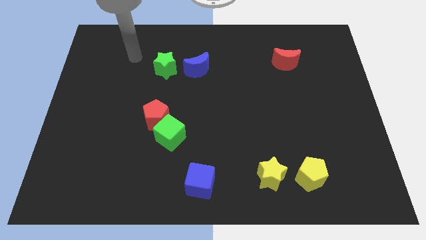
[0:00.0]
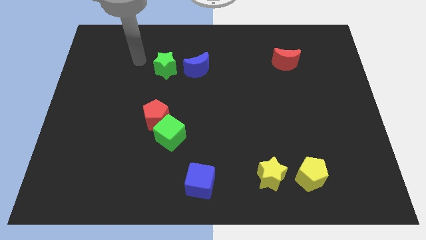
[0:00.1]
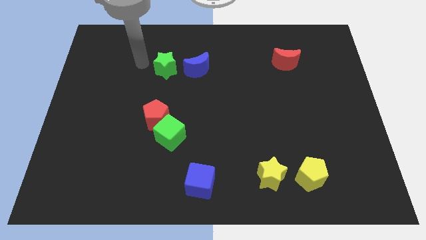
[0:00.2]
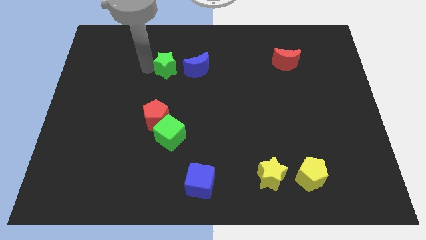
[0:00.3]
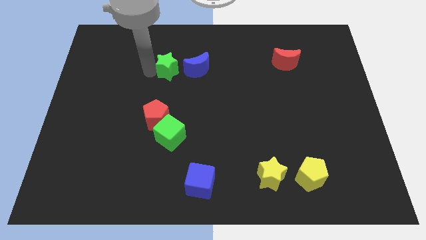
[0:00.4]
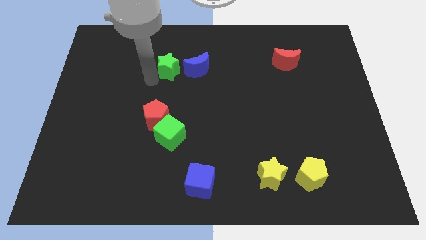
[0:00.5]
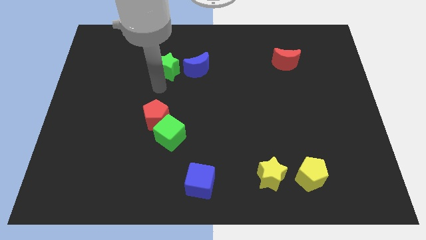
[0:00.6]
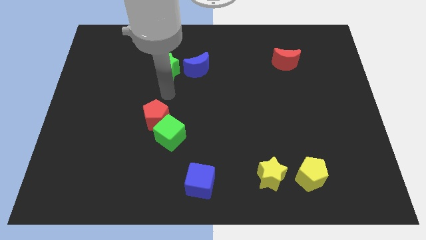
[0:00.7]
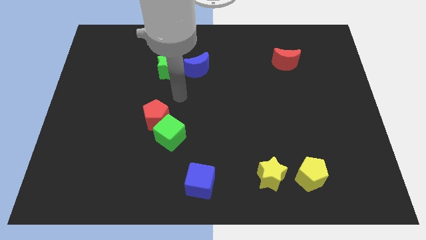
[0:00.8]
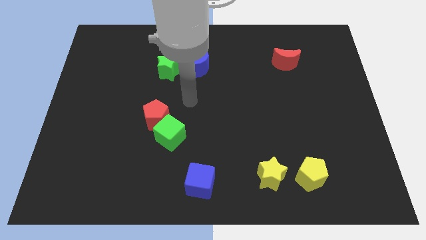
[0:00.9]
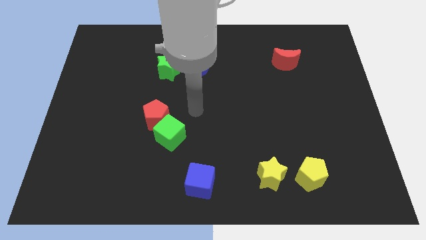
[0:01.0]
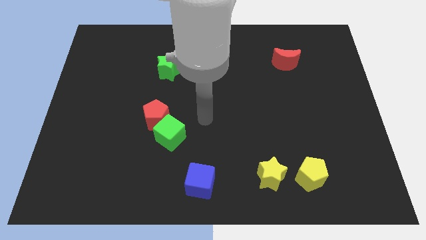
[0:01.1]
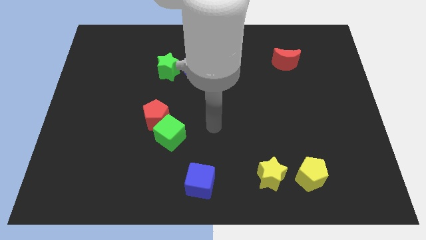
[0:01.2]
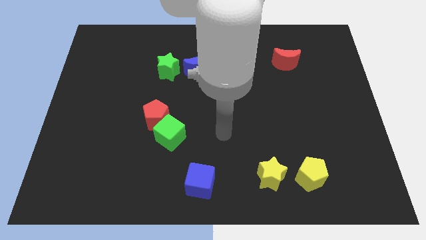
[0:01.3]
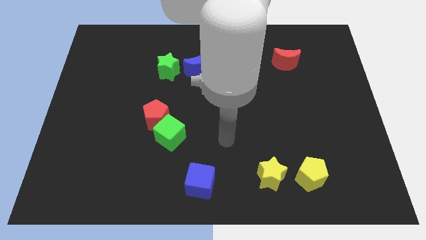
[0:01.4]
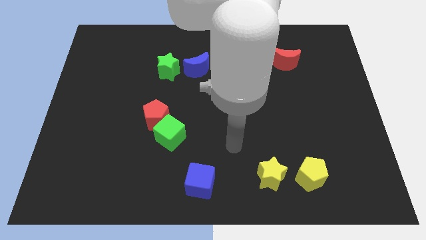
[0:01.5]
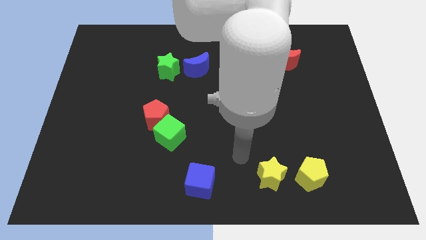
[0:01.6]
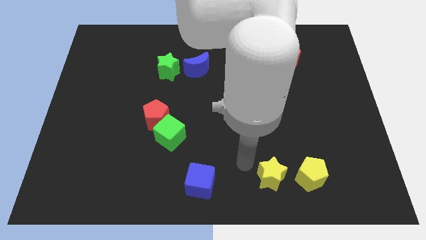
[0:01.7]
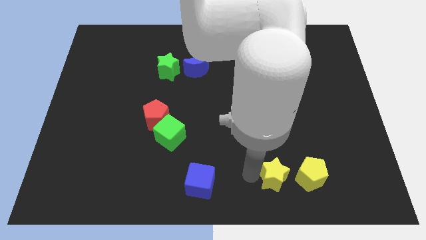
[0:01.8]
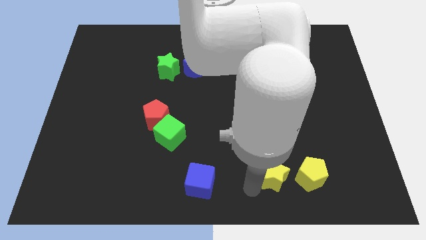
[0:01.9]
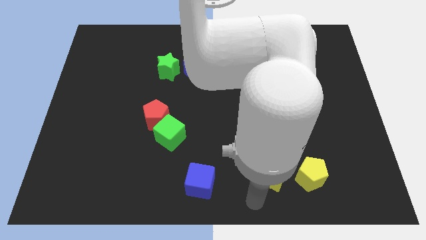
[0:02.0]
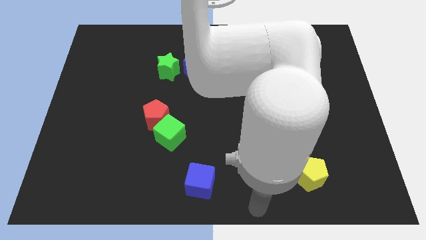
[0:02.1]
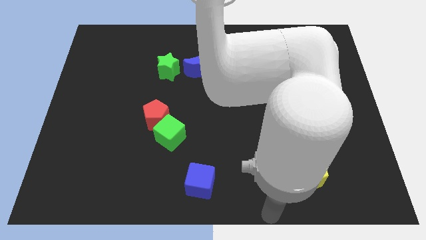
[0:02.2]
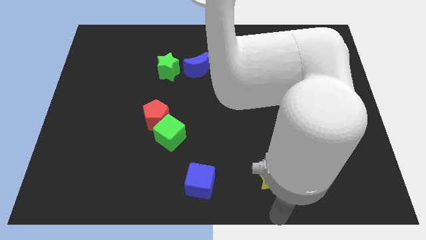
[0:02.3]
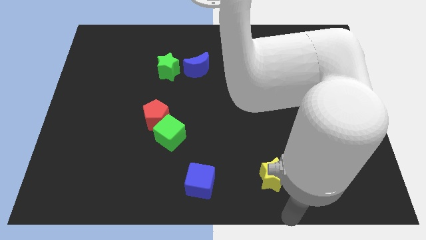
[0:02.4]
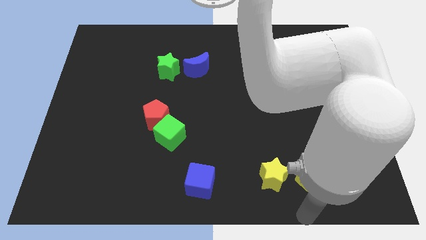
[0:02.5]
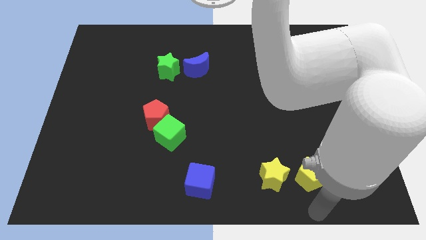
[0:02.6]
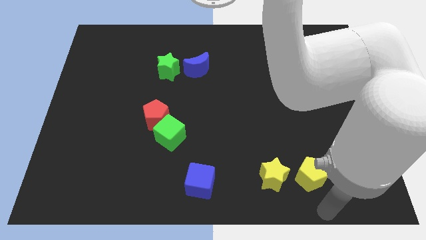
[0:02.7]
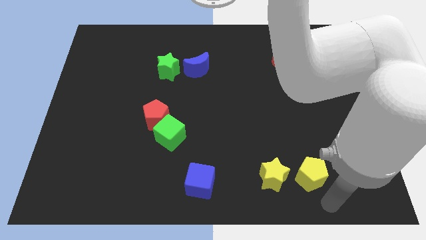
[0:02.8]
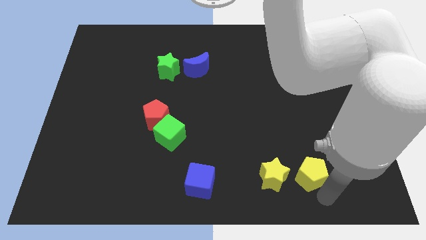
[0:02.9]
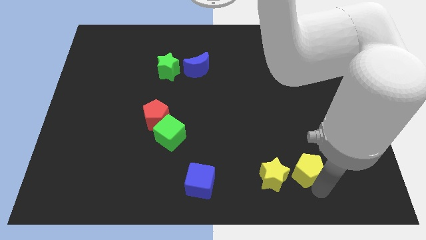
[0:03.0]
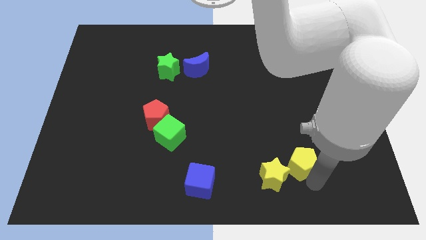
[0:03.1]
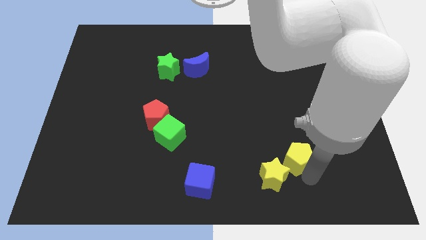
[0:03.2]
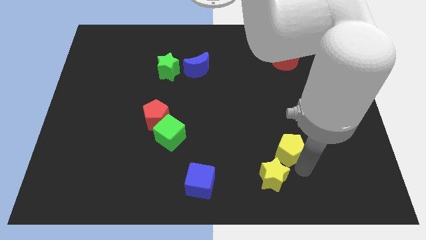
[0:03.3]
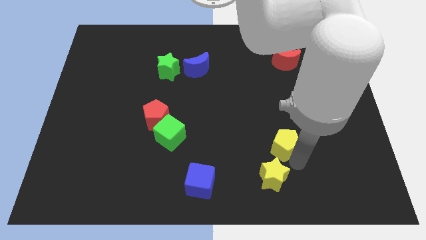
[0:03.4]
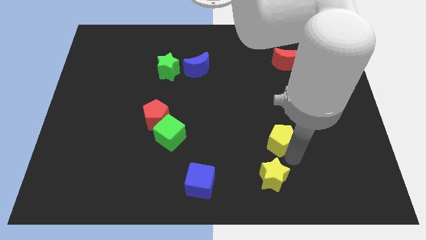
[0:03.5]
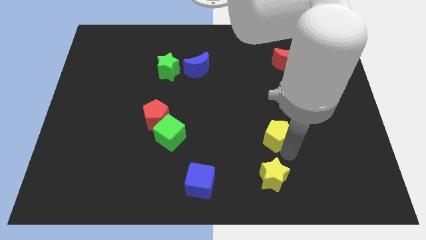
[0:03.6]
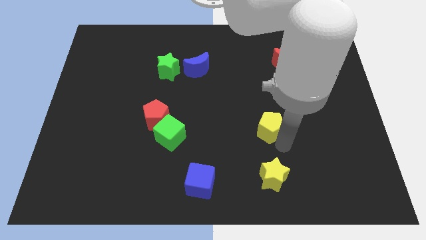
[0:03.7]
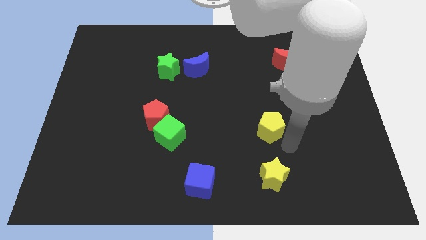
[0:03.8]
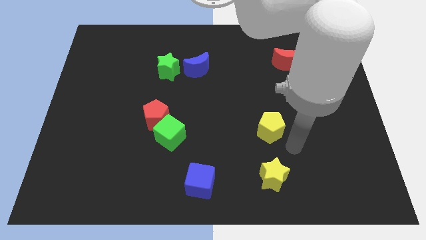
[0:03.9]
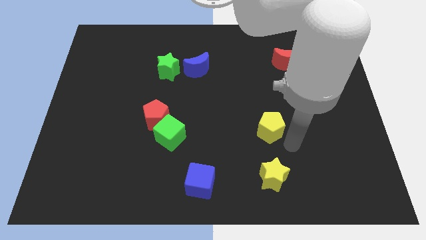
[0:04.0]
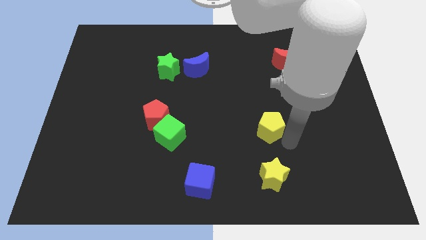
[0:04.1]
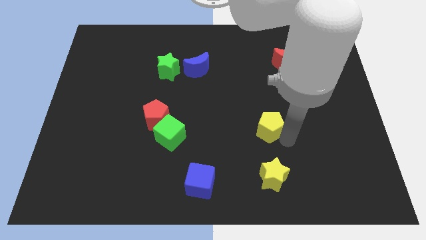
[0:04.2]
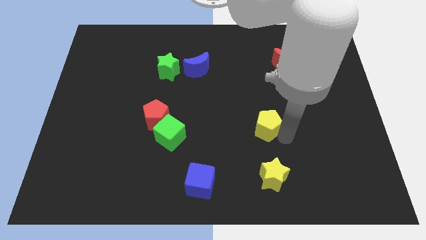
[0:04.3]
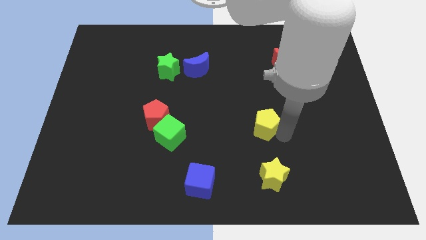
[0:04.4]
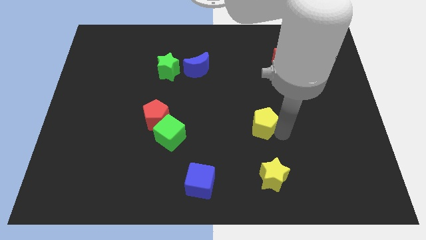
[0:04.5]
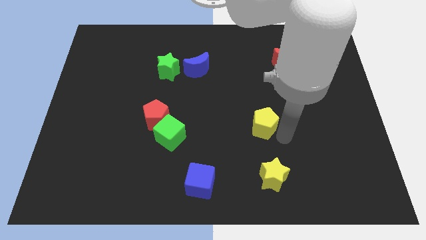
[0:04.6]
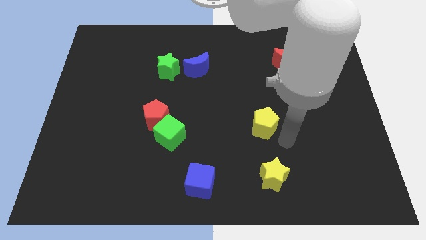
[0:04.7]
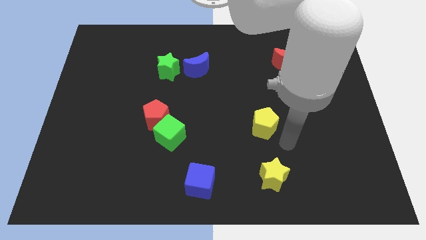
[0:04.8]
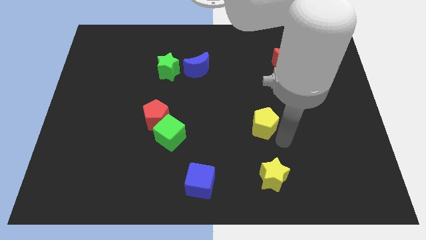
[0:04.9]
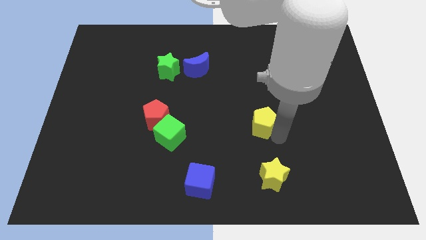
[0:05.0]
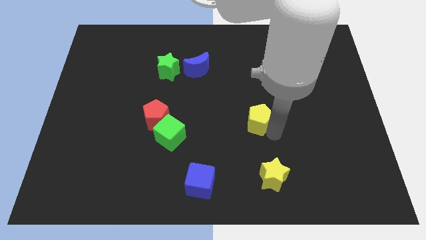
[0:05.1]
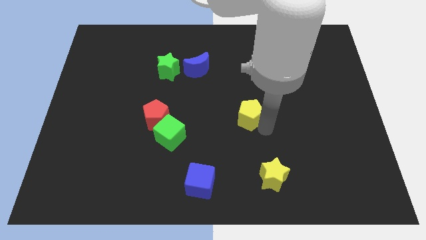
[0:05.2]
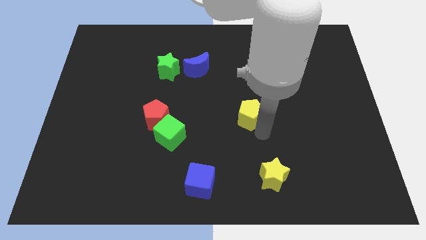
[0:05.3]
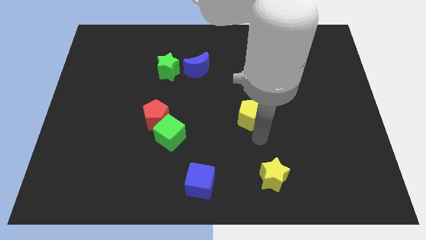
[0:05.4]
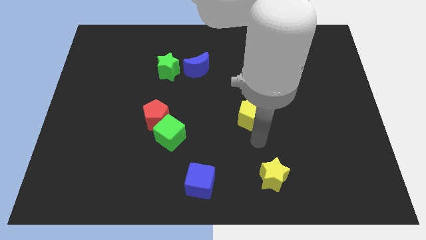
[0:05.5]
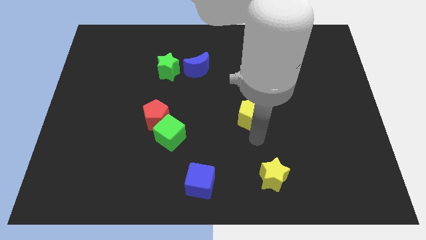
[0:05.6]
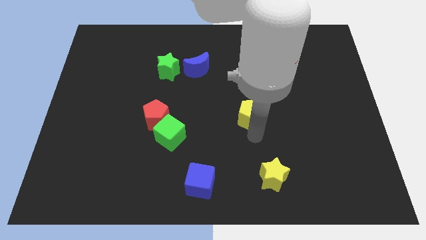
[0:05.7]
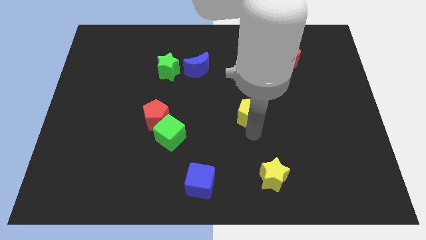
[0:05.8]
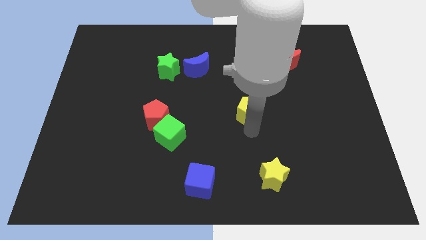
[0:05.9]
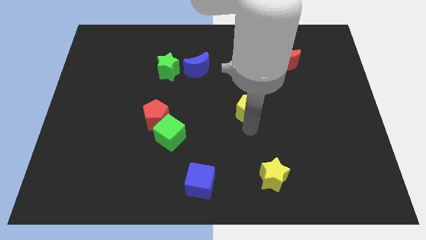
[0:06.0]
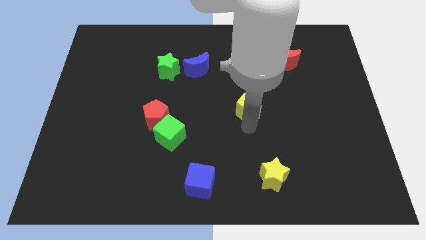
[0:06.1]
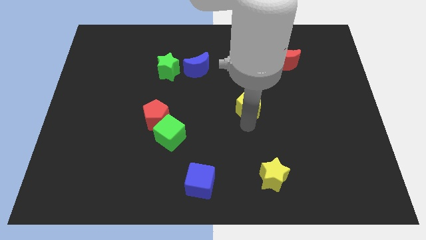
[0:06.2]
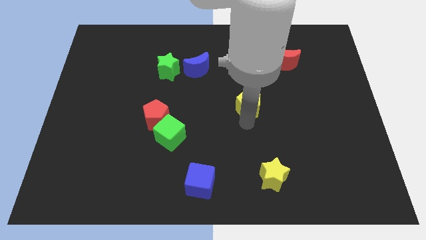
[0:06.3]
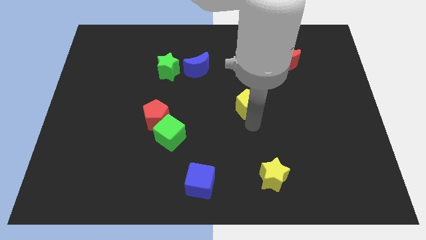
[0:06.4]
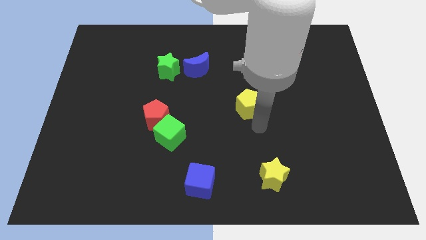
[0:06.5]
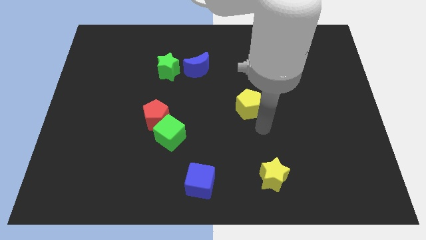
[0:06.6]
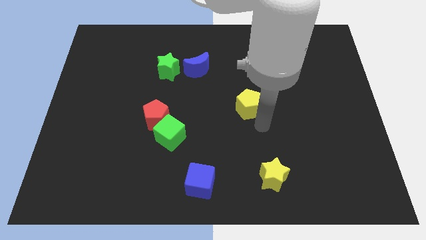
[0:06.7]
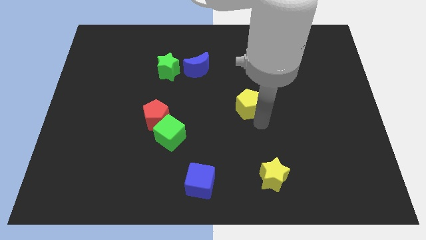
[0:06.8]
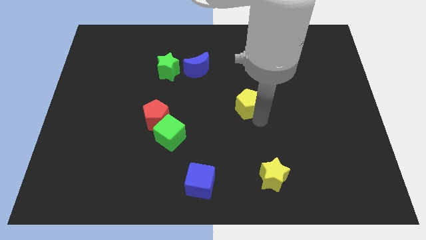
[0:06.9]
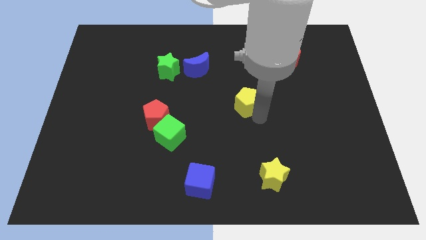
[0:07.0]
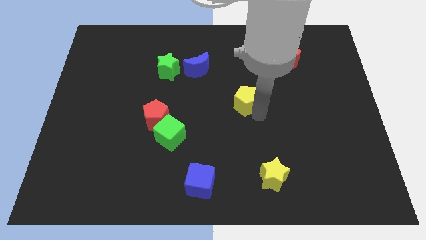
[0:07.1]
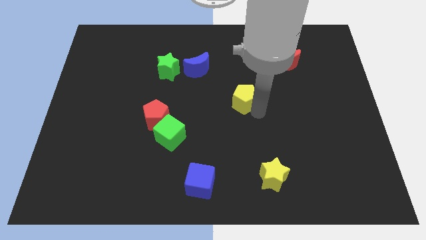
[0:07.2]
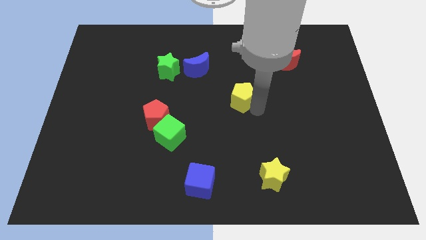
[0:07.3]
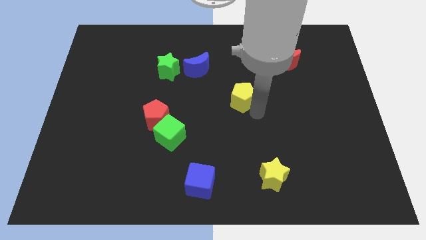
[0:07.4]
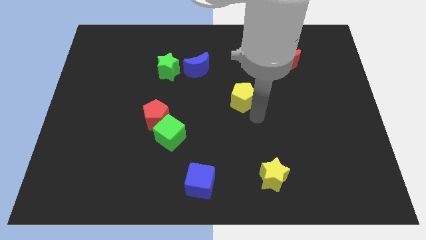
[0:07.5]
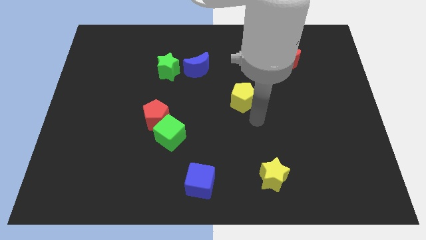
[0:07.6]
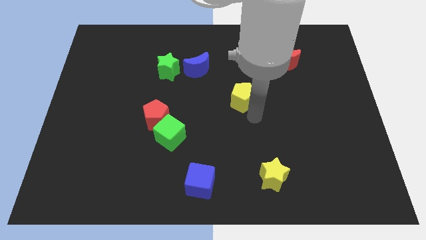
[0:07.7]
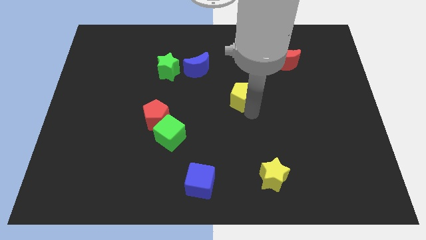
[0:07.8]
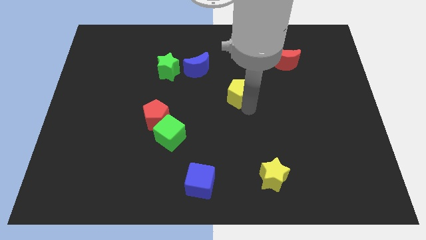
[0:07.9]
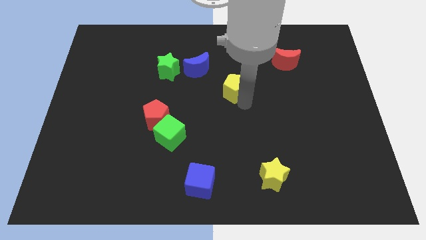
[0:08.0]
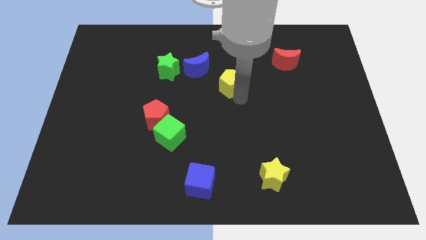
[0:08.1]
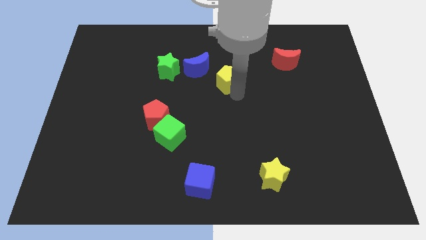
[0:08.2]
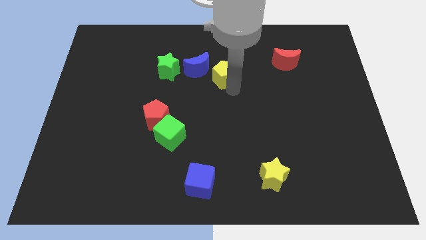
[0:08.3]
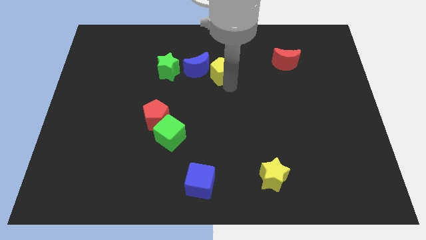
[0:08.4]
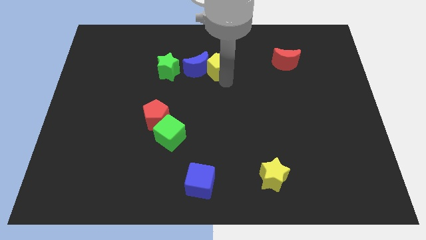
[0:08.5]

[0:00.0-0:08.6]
move the yellow pentagon to the top right of the blue moon
